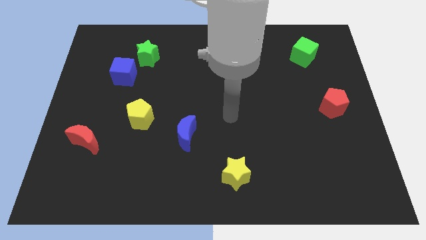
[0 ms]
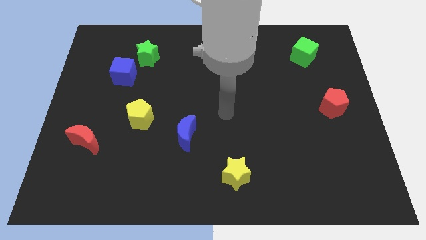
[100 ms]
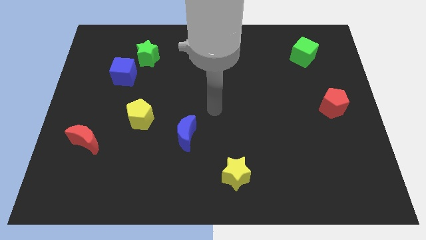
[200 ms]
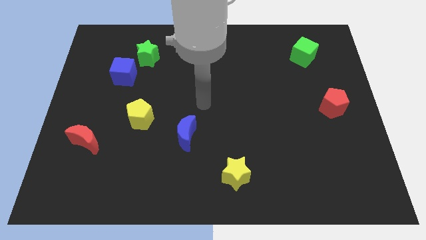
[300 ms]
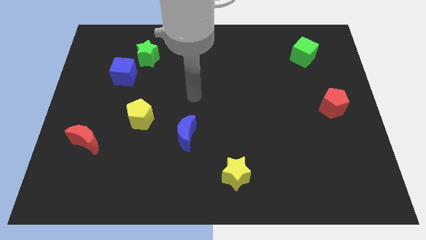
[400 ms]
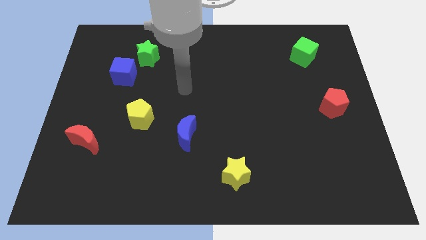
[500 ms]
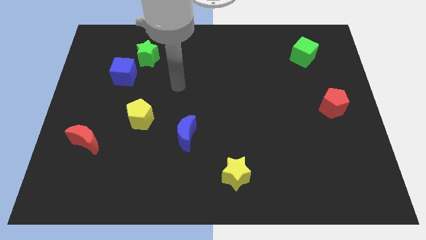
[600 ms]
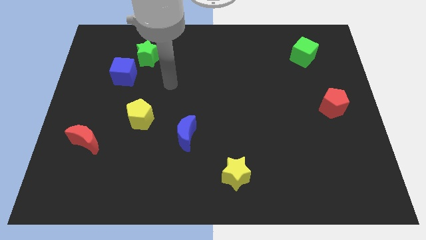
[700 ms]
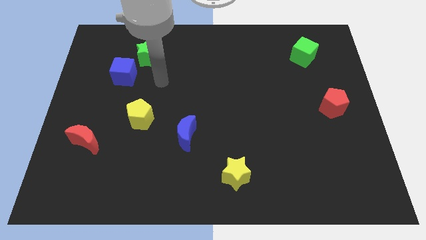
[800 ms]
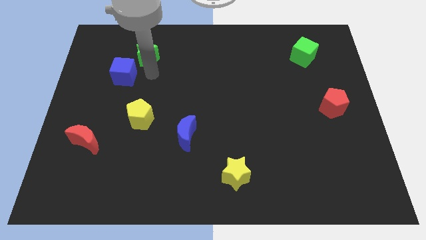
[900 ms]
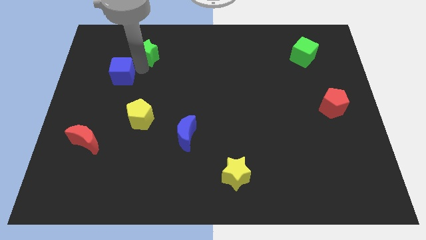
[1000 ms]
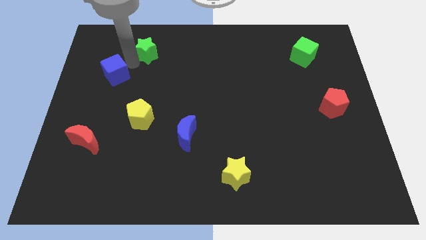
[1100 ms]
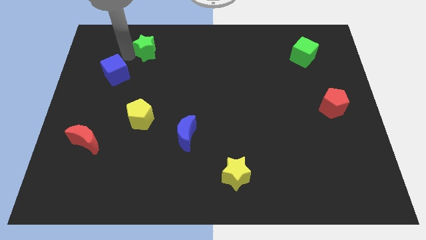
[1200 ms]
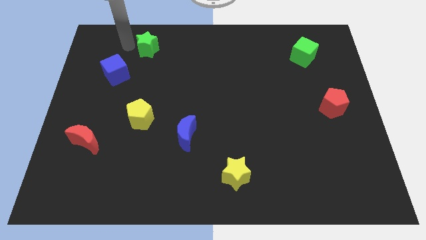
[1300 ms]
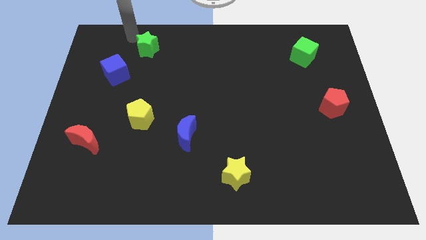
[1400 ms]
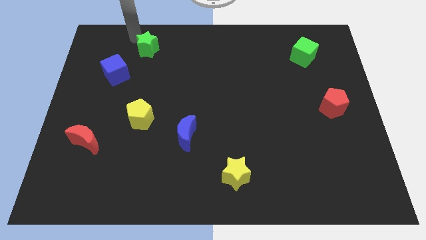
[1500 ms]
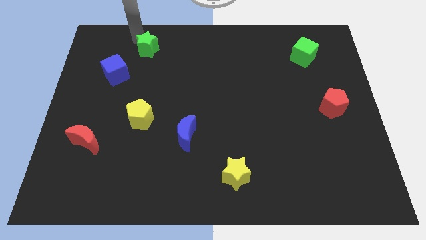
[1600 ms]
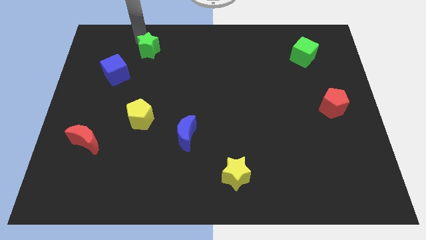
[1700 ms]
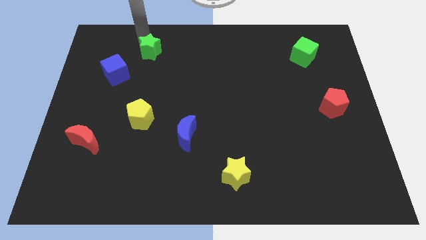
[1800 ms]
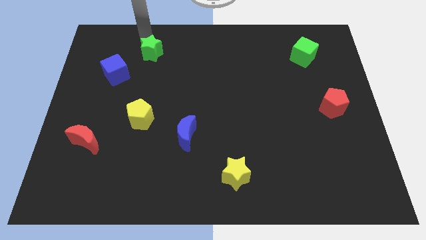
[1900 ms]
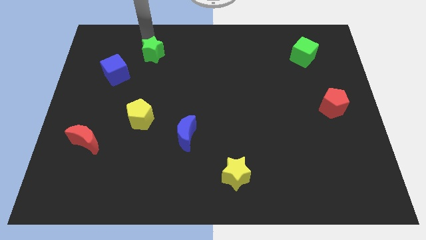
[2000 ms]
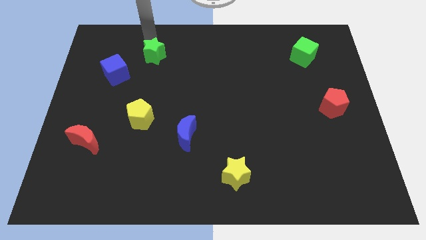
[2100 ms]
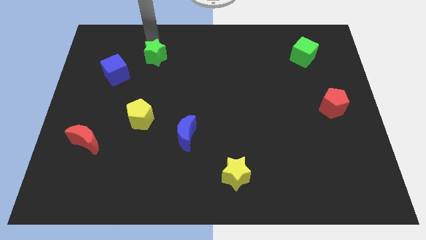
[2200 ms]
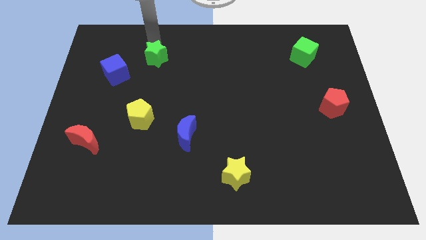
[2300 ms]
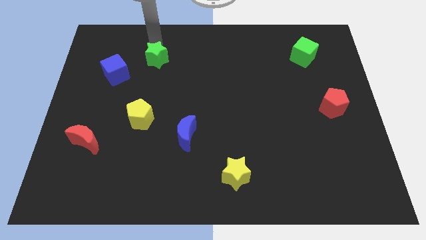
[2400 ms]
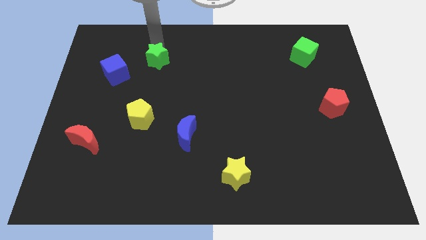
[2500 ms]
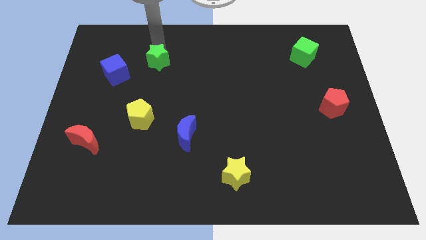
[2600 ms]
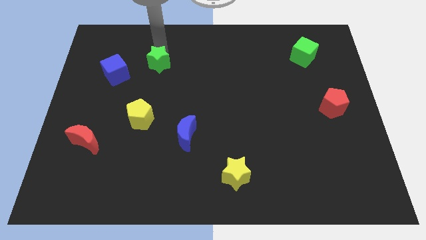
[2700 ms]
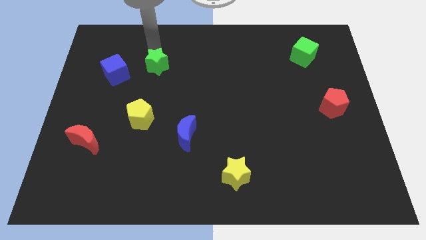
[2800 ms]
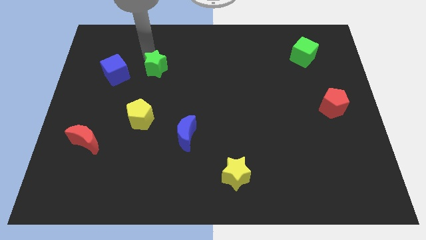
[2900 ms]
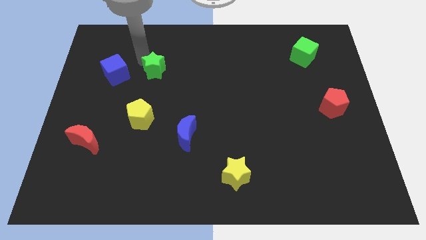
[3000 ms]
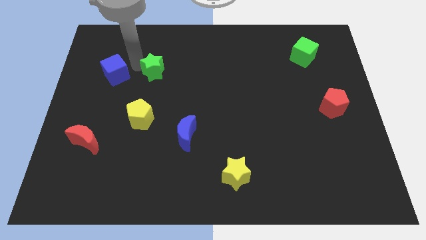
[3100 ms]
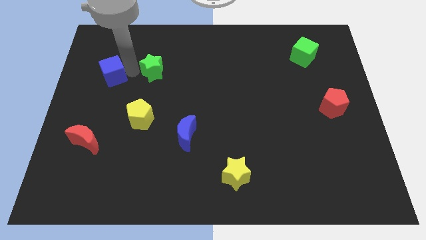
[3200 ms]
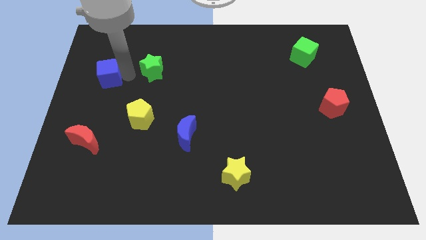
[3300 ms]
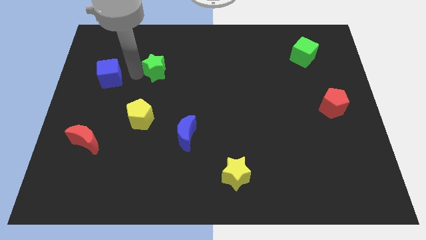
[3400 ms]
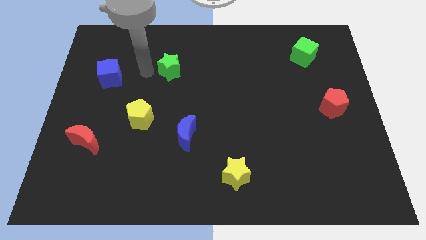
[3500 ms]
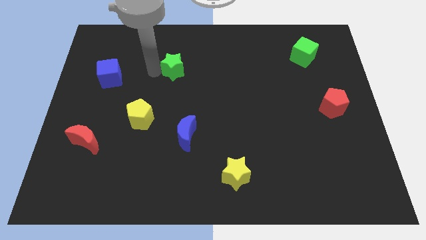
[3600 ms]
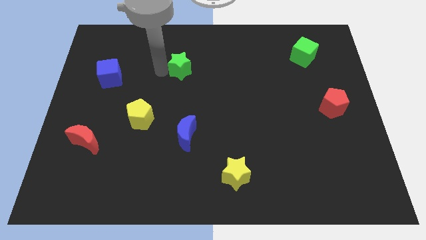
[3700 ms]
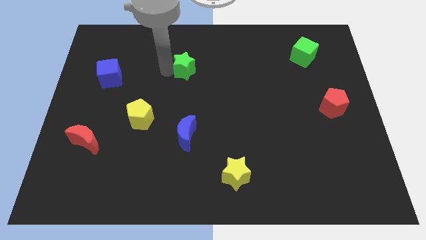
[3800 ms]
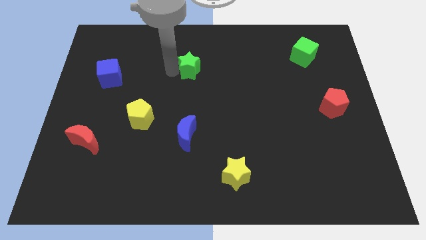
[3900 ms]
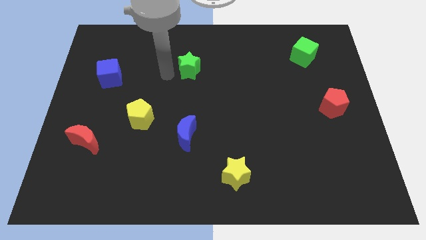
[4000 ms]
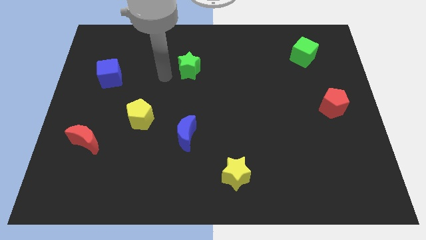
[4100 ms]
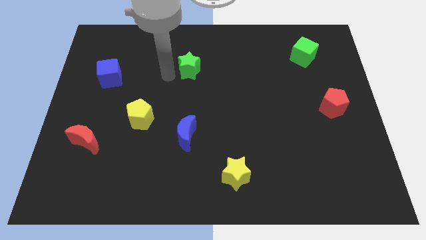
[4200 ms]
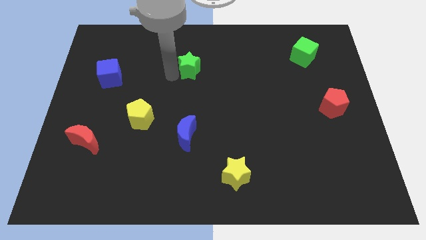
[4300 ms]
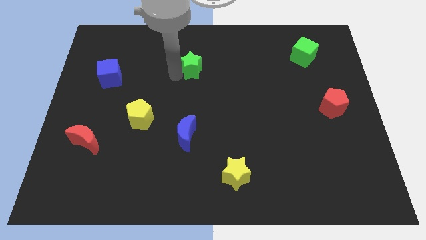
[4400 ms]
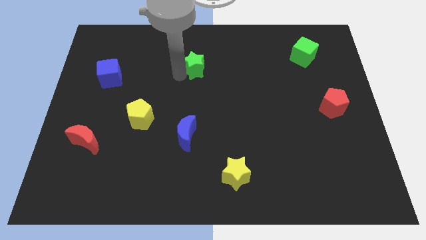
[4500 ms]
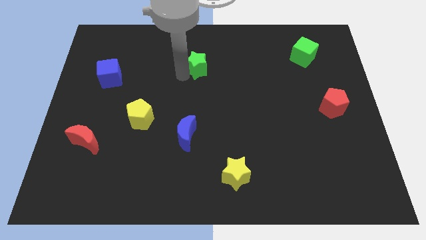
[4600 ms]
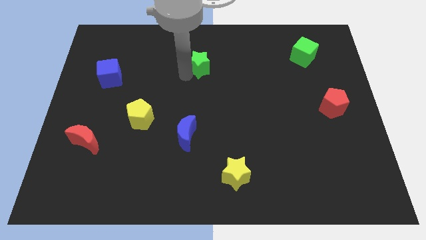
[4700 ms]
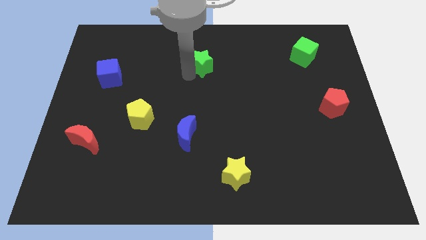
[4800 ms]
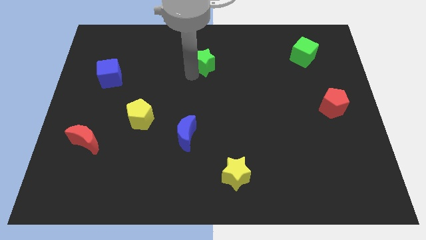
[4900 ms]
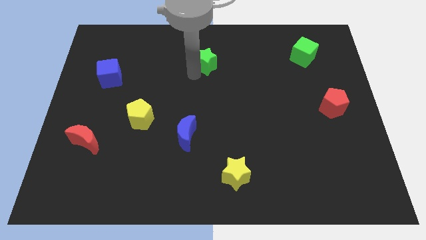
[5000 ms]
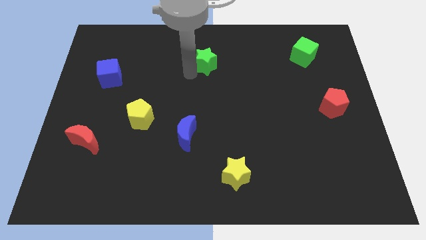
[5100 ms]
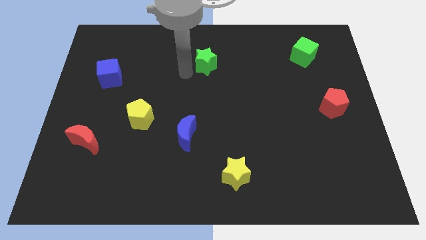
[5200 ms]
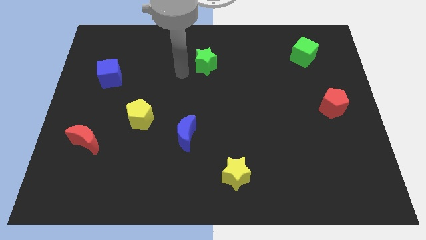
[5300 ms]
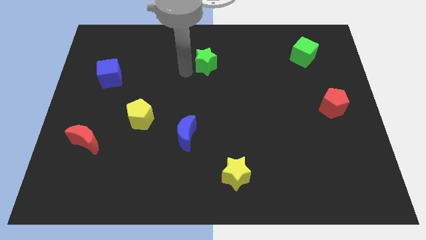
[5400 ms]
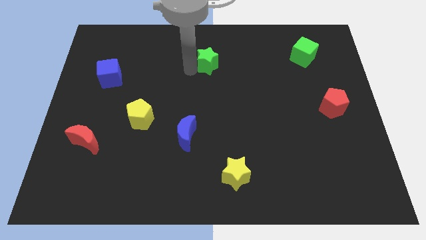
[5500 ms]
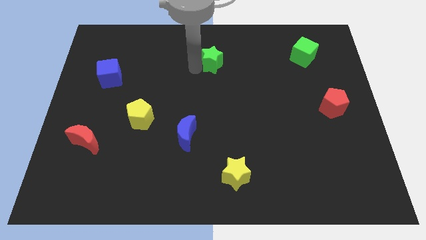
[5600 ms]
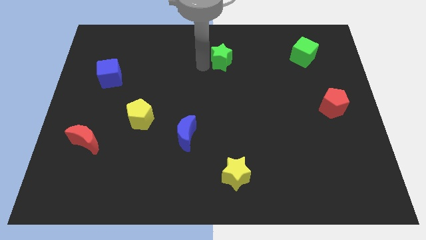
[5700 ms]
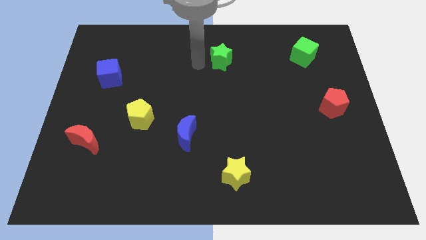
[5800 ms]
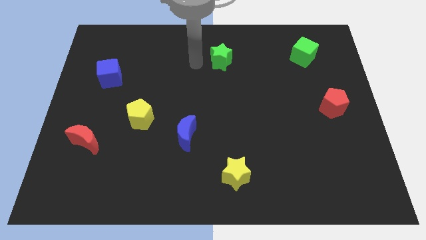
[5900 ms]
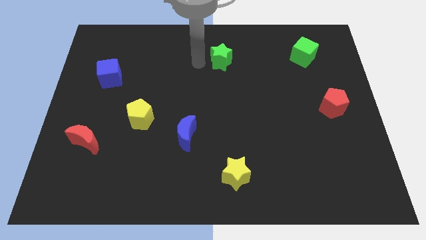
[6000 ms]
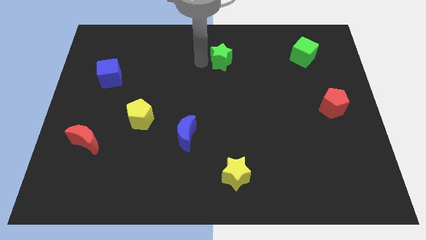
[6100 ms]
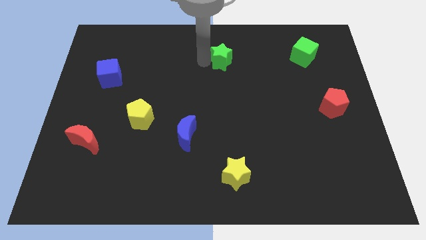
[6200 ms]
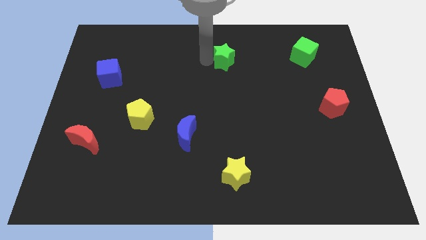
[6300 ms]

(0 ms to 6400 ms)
move the green star right

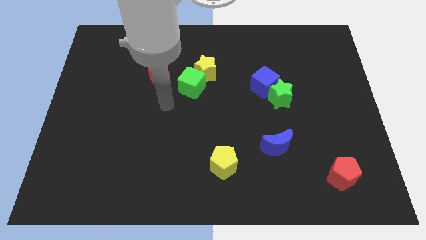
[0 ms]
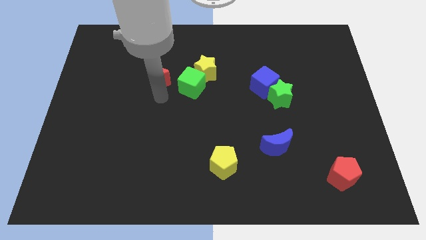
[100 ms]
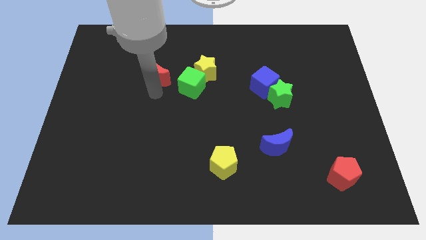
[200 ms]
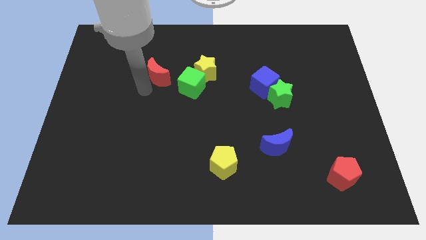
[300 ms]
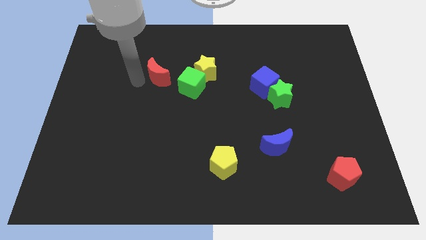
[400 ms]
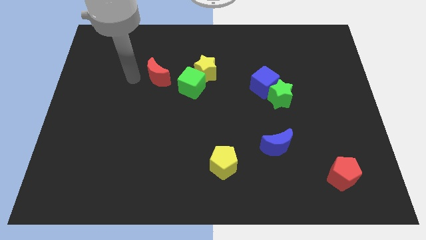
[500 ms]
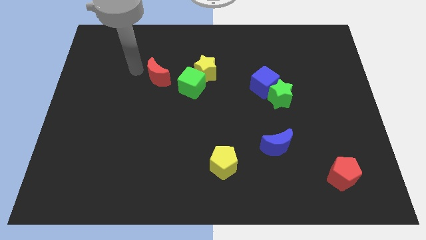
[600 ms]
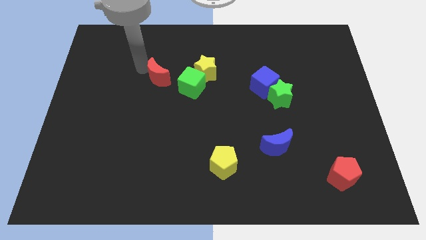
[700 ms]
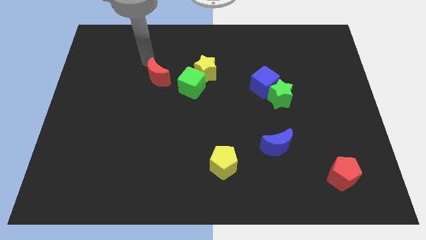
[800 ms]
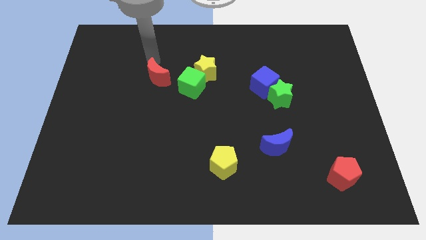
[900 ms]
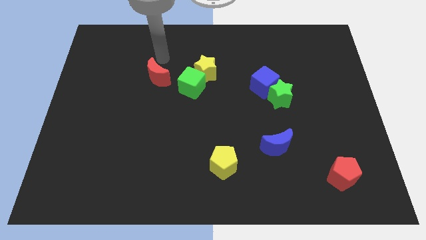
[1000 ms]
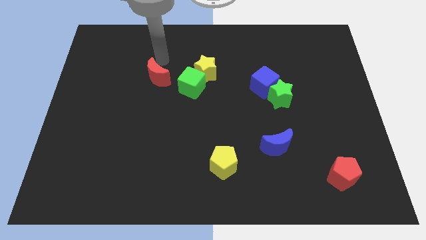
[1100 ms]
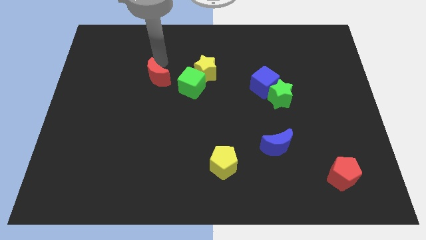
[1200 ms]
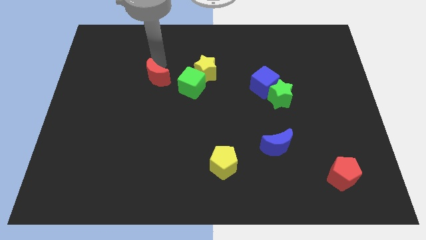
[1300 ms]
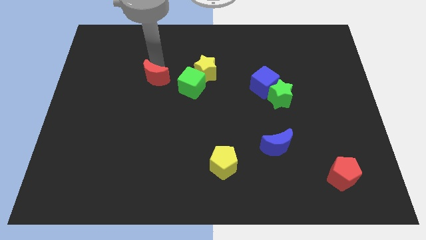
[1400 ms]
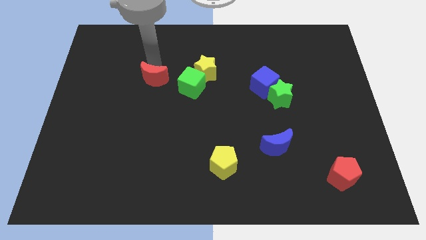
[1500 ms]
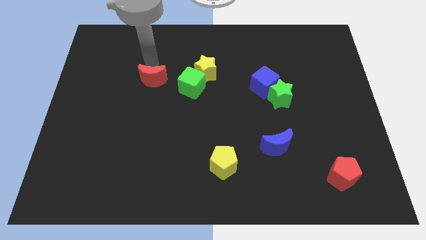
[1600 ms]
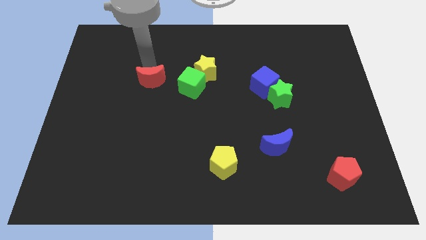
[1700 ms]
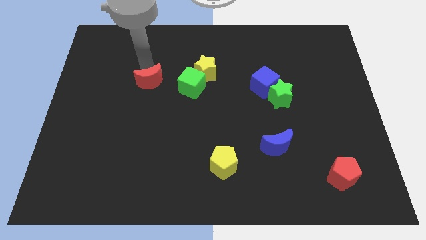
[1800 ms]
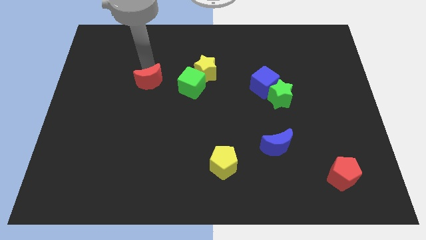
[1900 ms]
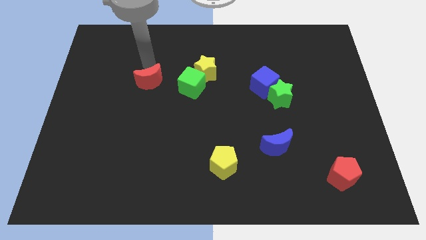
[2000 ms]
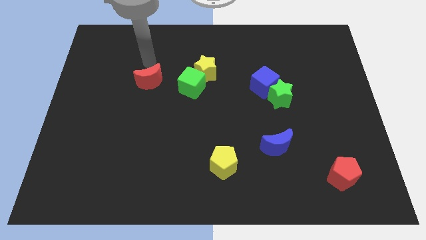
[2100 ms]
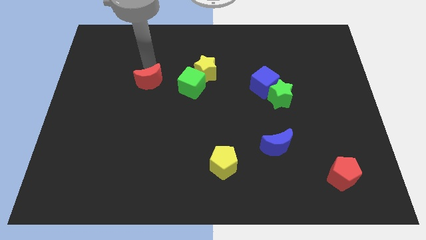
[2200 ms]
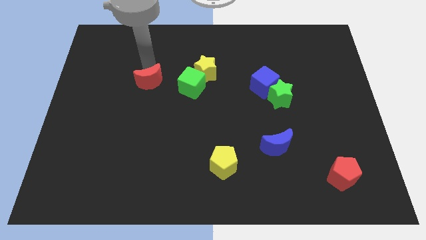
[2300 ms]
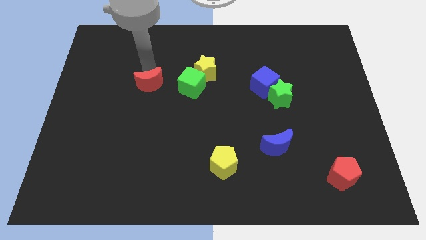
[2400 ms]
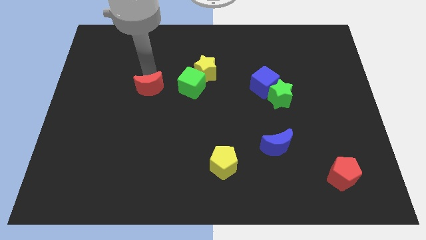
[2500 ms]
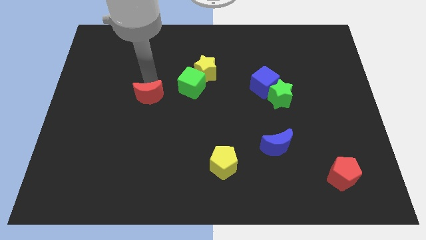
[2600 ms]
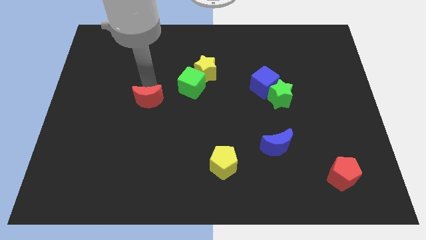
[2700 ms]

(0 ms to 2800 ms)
move the red moon a little bit down
